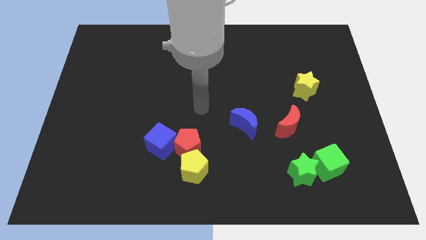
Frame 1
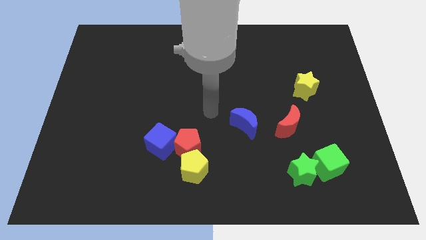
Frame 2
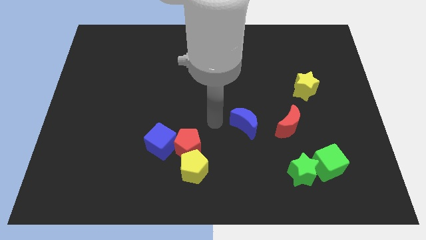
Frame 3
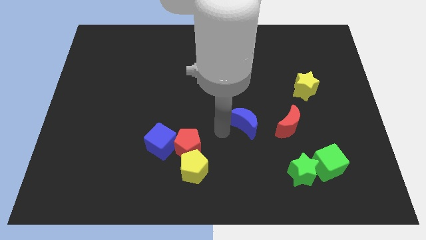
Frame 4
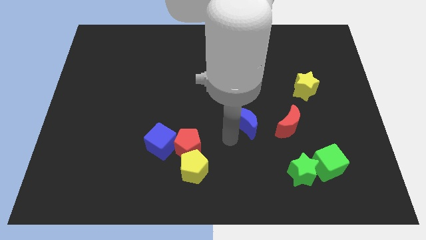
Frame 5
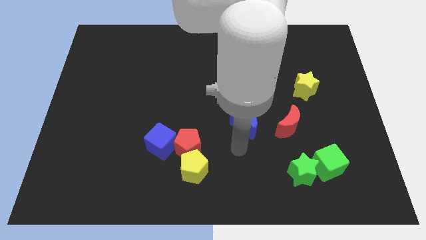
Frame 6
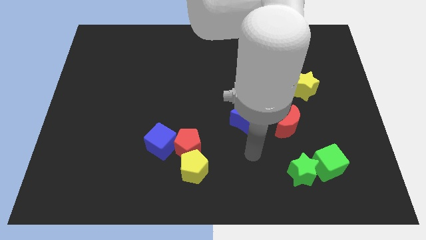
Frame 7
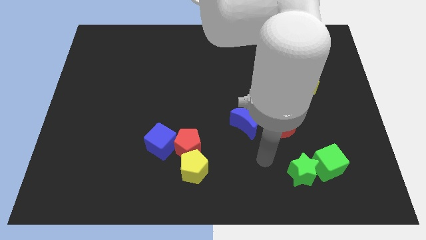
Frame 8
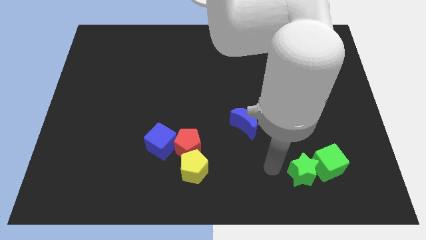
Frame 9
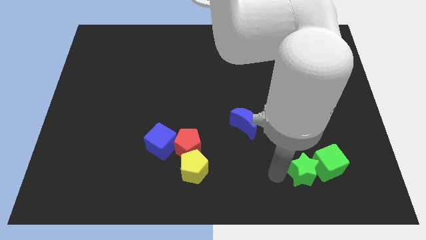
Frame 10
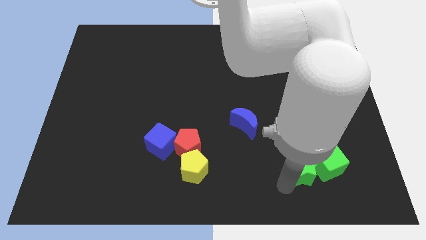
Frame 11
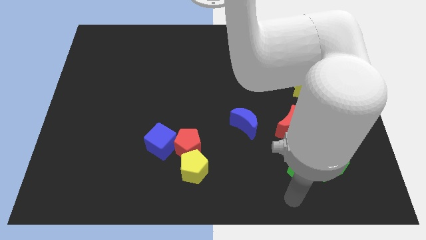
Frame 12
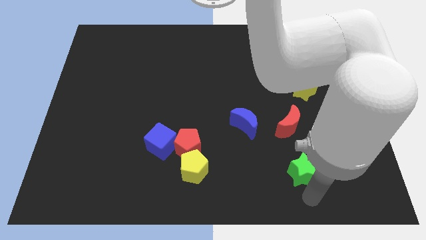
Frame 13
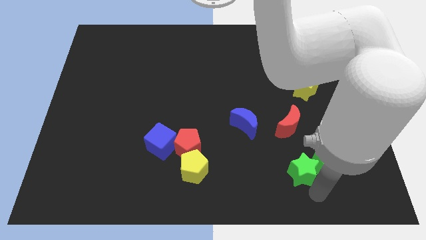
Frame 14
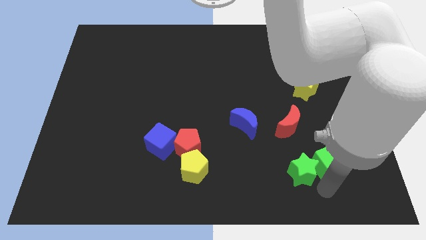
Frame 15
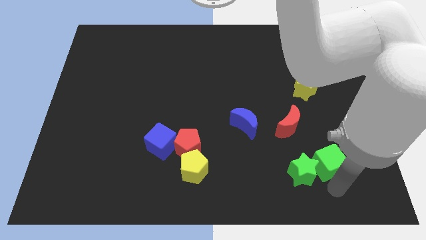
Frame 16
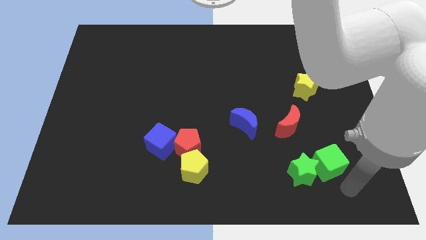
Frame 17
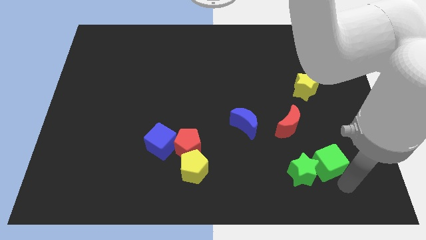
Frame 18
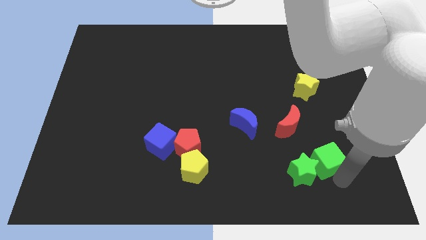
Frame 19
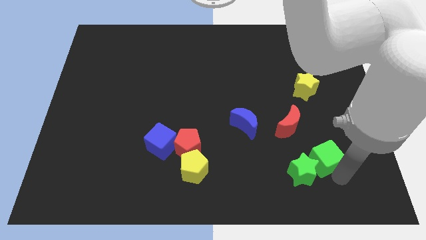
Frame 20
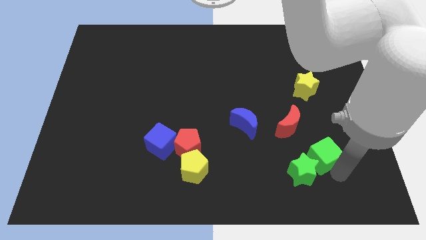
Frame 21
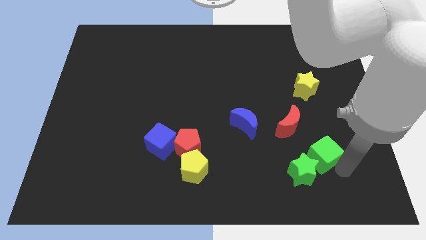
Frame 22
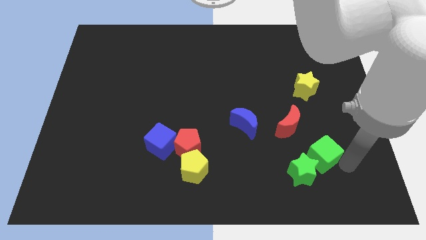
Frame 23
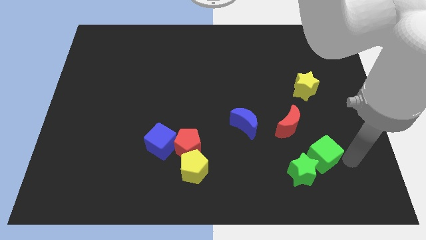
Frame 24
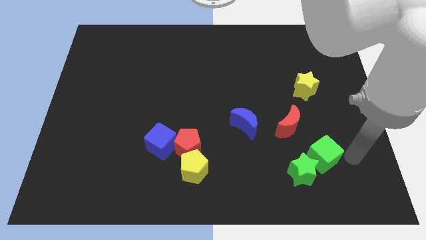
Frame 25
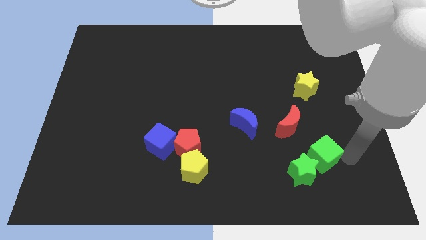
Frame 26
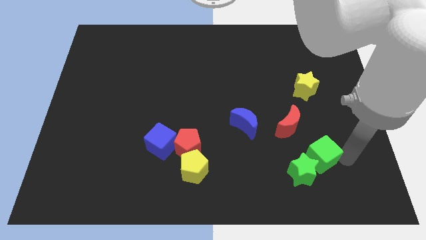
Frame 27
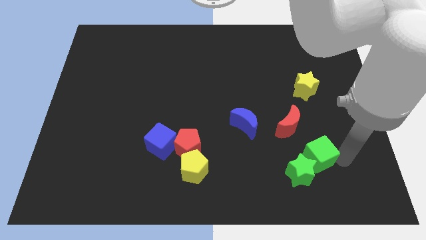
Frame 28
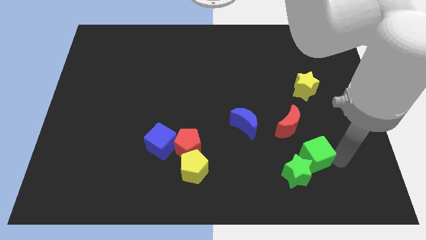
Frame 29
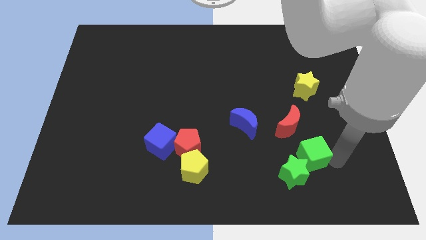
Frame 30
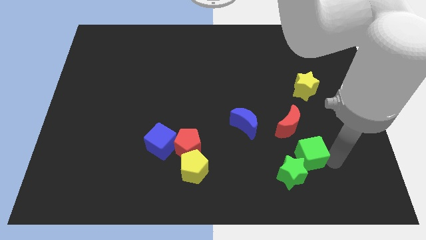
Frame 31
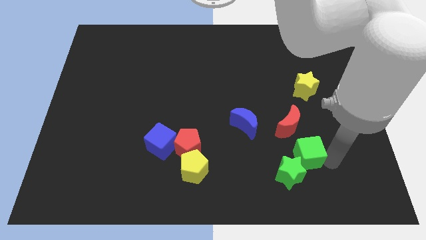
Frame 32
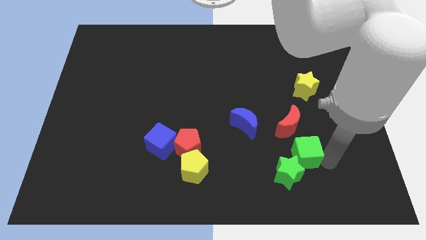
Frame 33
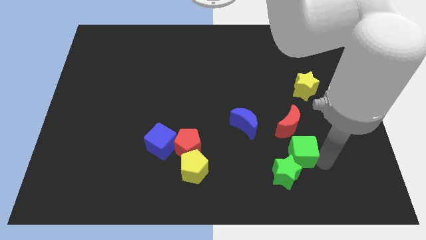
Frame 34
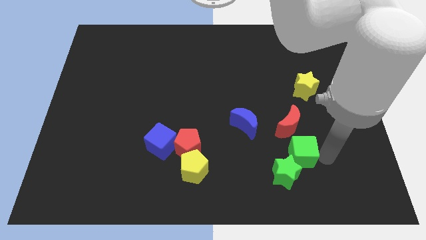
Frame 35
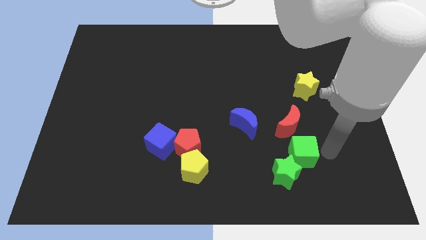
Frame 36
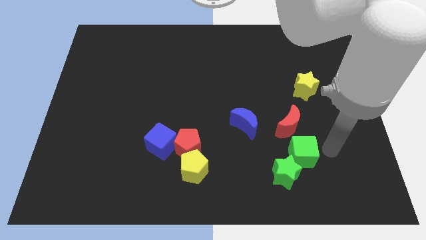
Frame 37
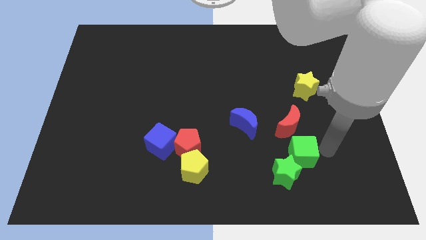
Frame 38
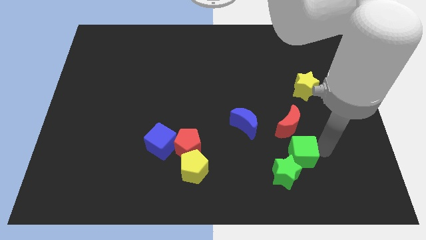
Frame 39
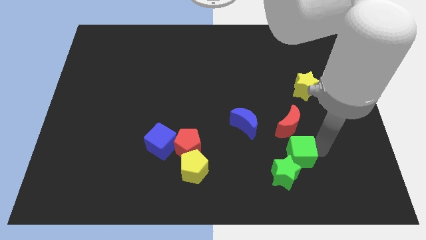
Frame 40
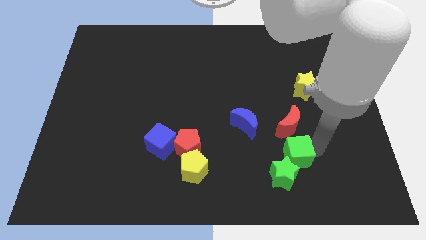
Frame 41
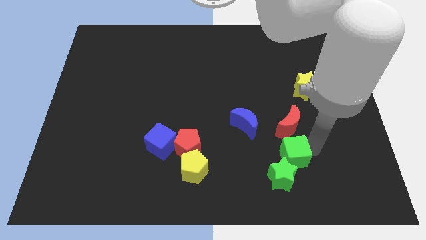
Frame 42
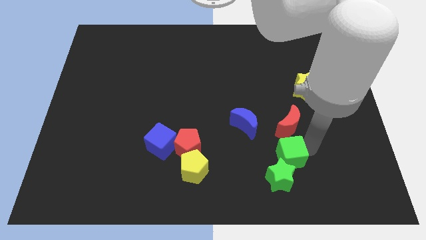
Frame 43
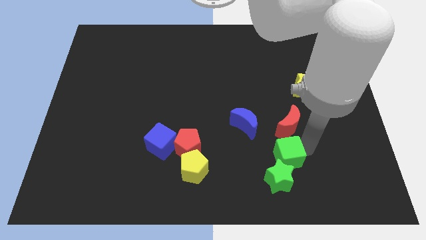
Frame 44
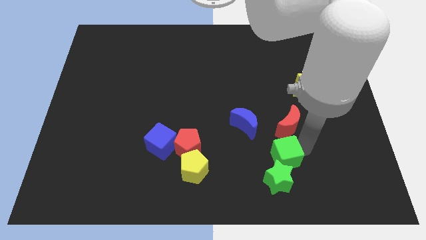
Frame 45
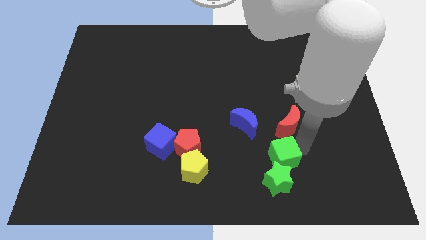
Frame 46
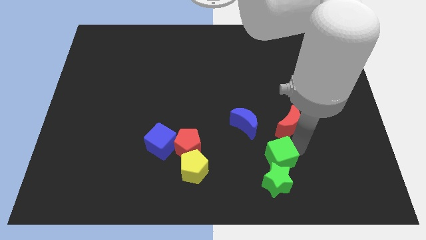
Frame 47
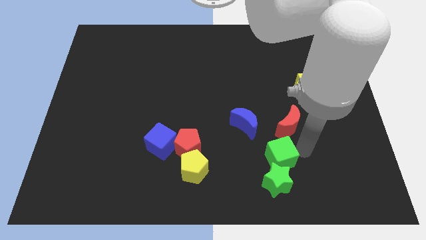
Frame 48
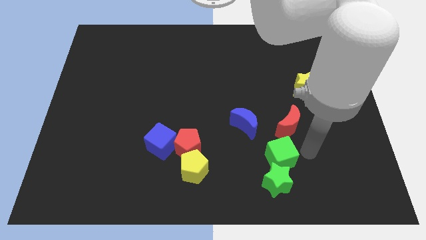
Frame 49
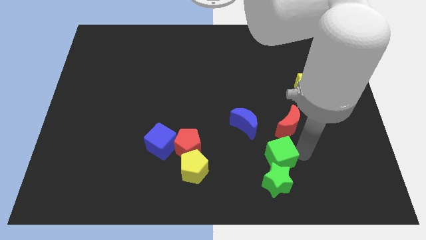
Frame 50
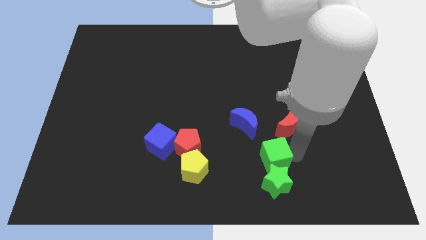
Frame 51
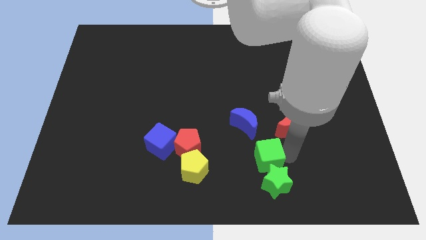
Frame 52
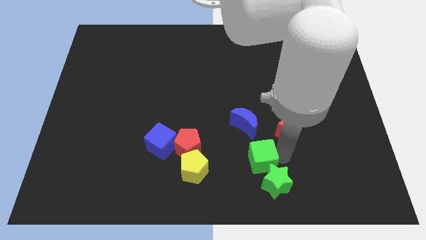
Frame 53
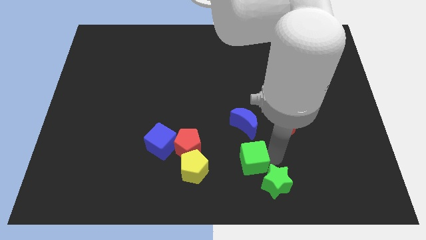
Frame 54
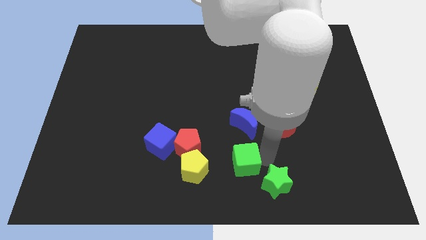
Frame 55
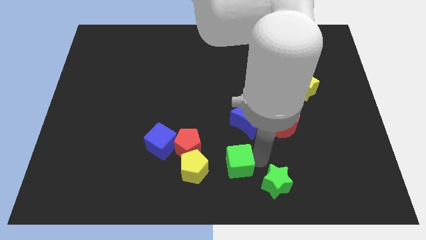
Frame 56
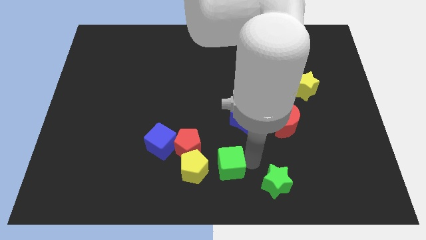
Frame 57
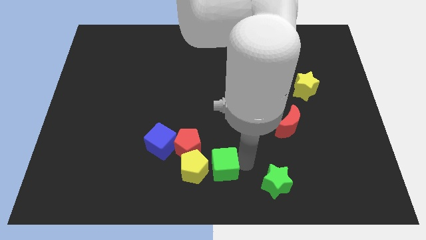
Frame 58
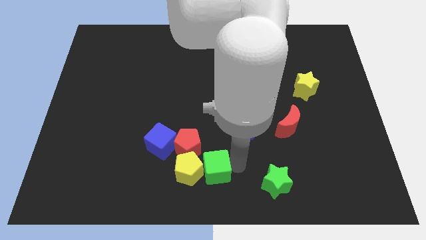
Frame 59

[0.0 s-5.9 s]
slide the green cube close to the yellow pentagon
